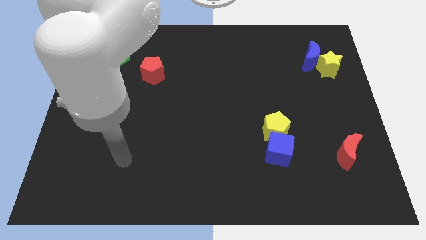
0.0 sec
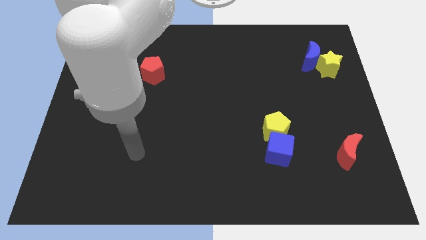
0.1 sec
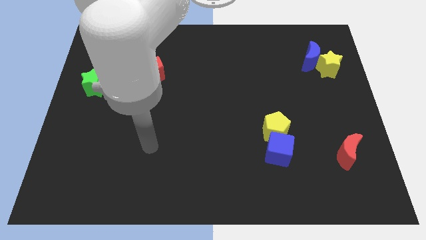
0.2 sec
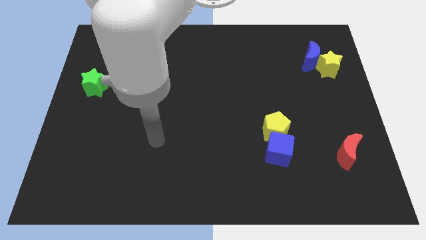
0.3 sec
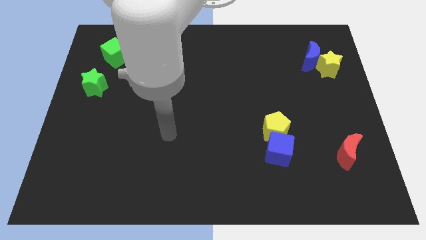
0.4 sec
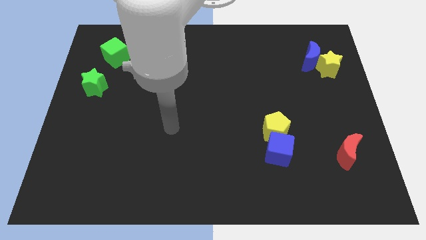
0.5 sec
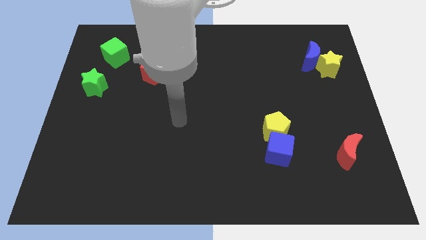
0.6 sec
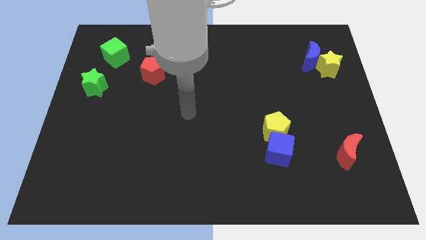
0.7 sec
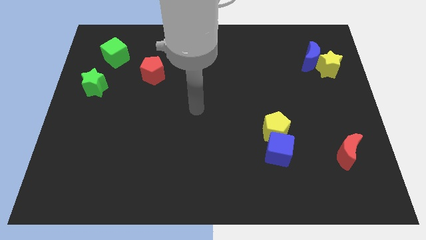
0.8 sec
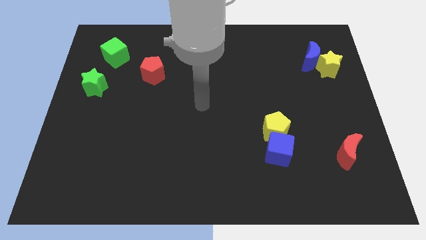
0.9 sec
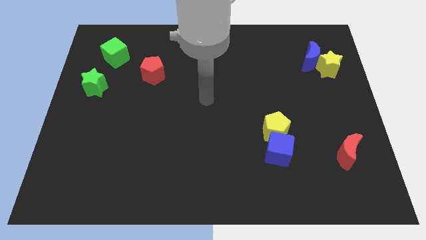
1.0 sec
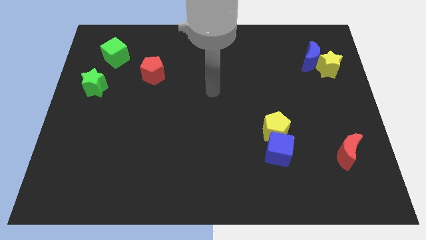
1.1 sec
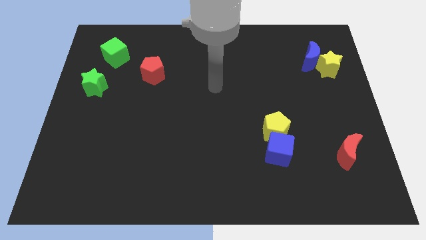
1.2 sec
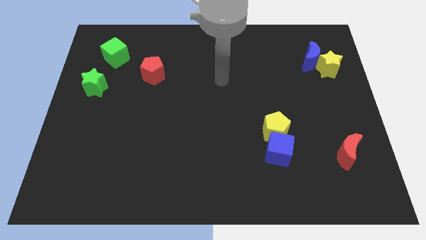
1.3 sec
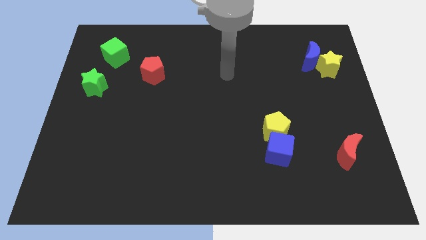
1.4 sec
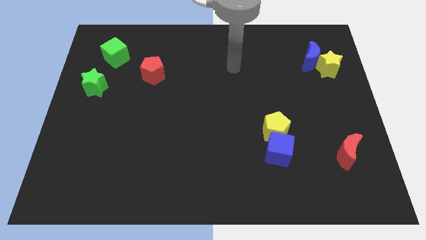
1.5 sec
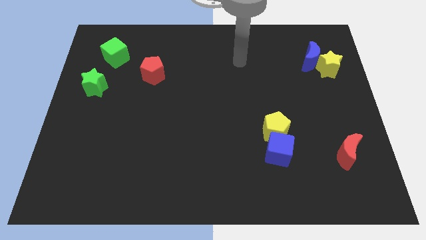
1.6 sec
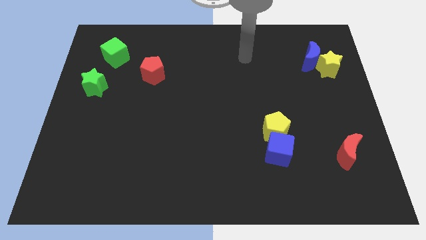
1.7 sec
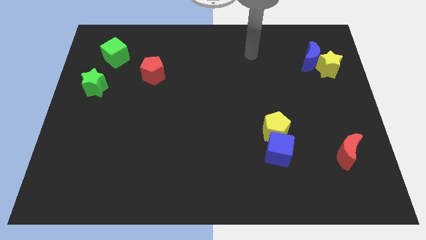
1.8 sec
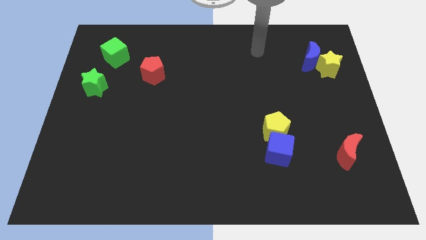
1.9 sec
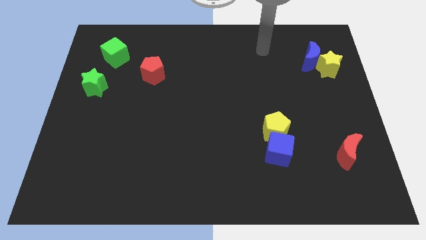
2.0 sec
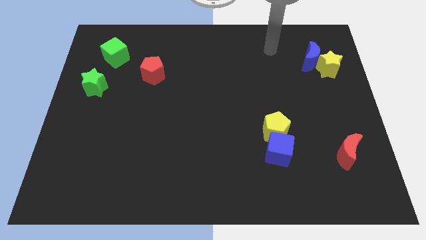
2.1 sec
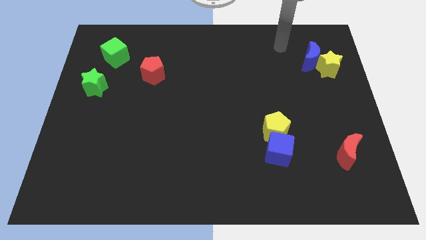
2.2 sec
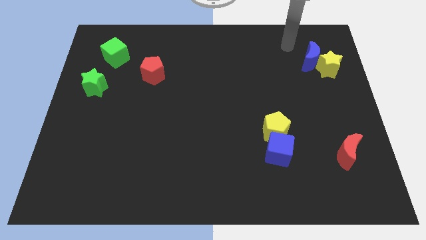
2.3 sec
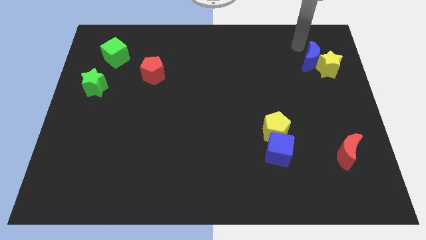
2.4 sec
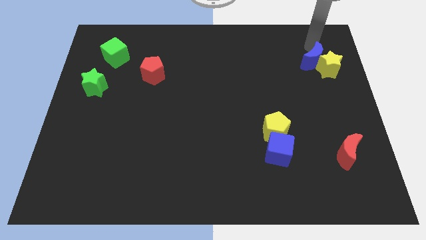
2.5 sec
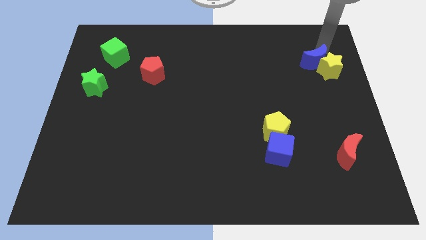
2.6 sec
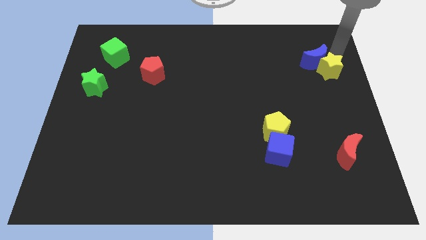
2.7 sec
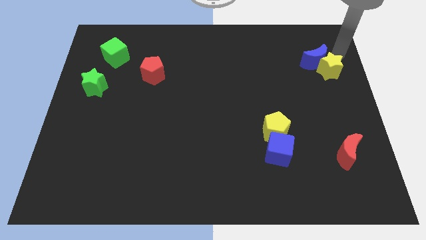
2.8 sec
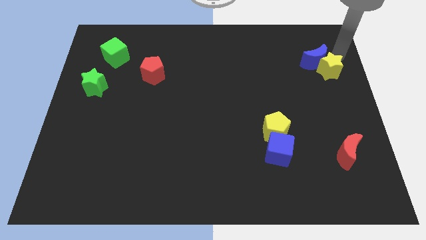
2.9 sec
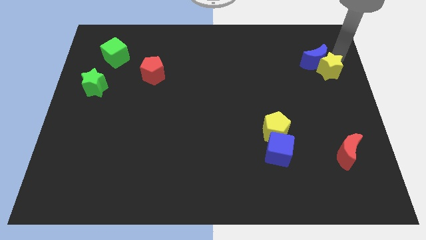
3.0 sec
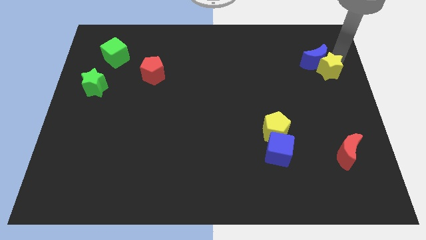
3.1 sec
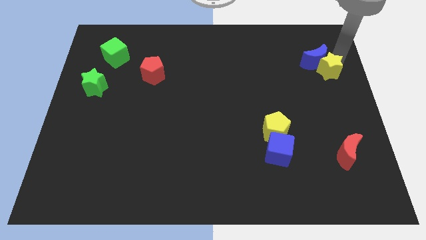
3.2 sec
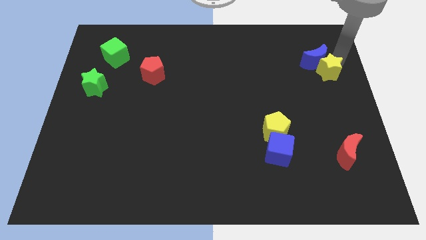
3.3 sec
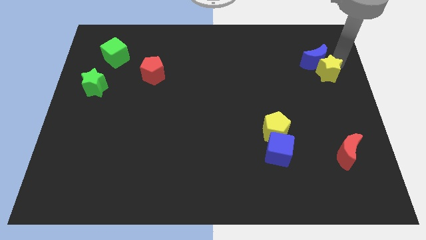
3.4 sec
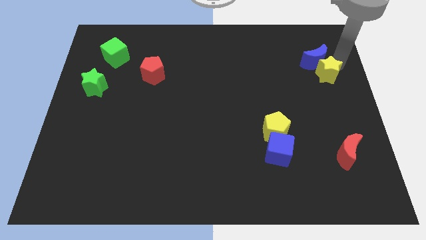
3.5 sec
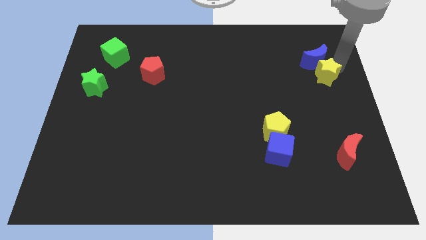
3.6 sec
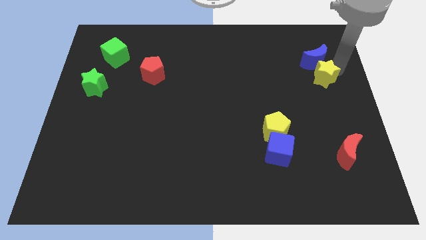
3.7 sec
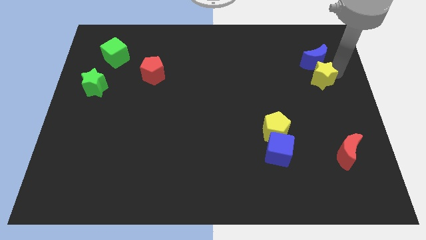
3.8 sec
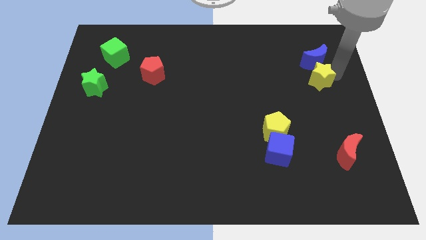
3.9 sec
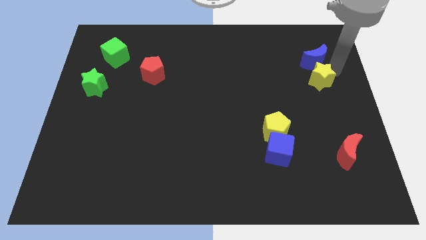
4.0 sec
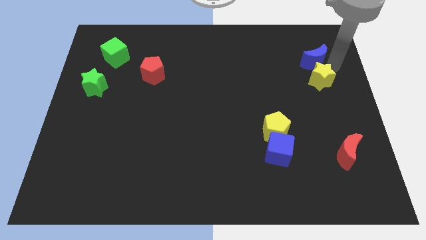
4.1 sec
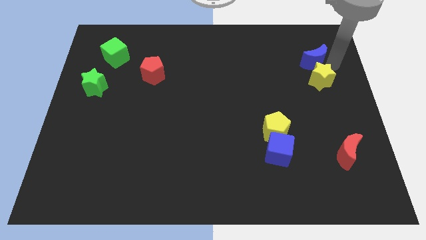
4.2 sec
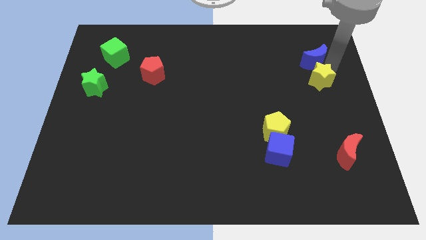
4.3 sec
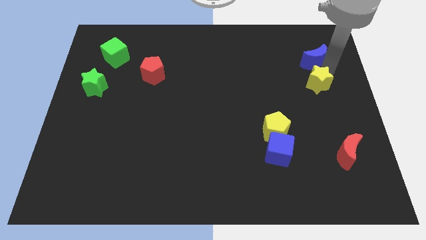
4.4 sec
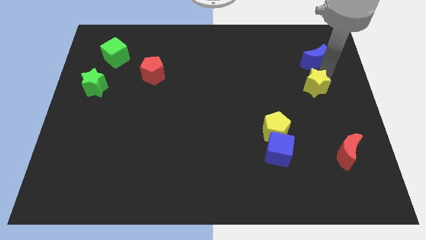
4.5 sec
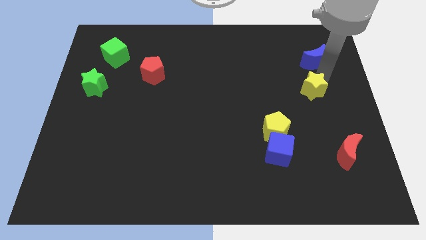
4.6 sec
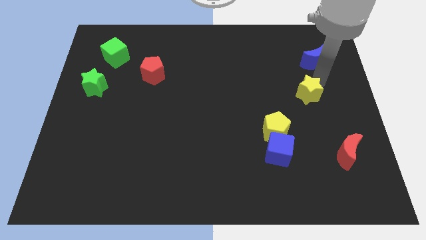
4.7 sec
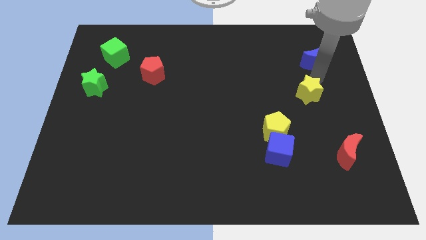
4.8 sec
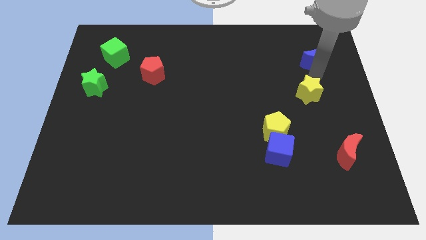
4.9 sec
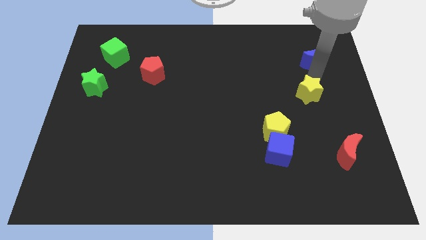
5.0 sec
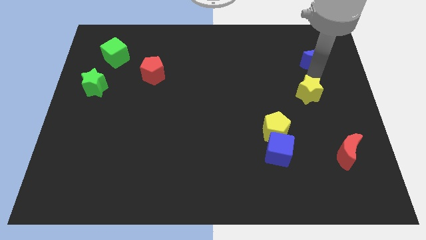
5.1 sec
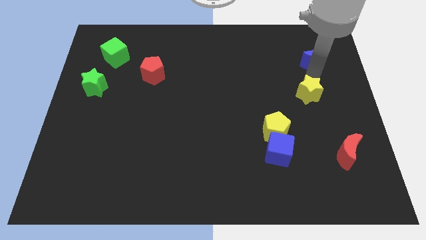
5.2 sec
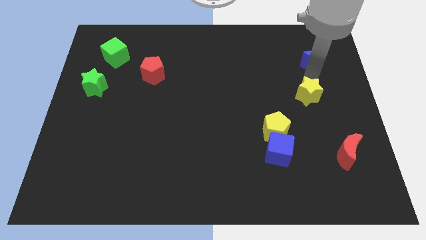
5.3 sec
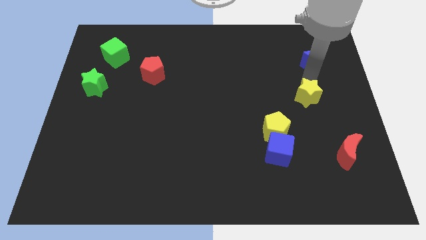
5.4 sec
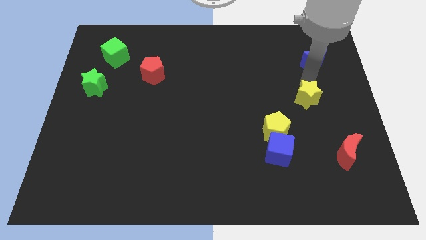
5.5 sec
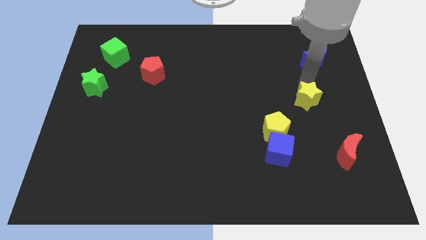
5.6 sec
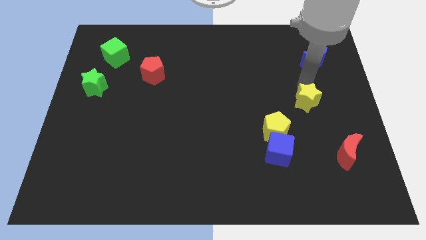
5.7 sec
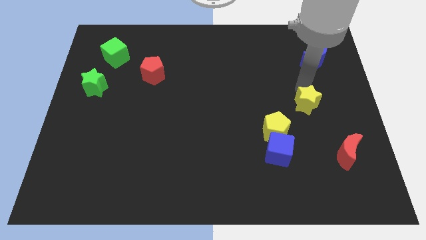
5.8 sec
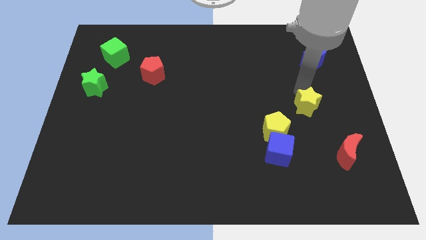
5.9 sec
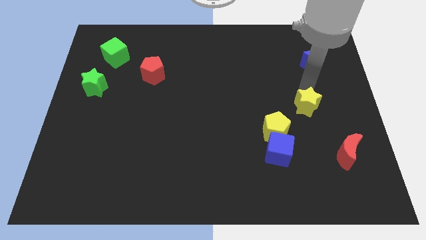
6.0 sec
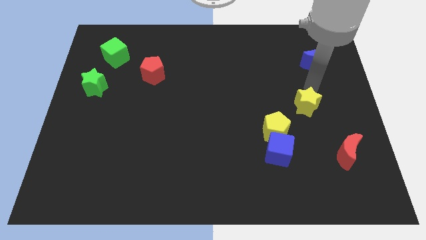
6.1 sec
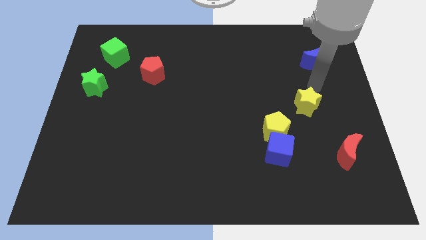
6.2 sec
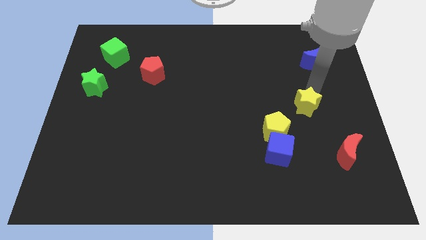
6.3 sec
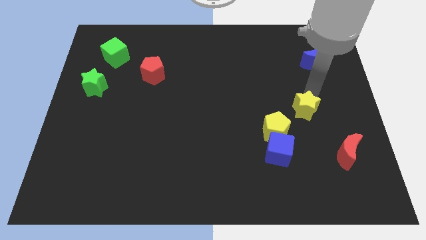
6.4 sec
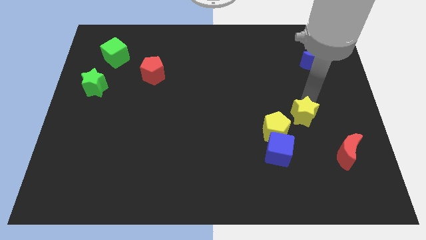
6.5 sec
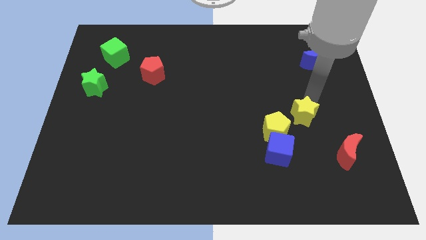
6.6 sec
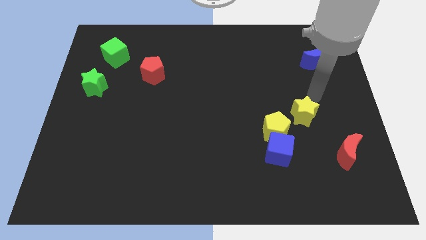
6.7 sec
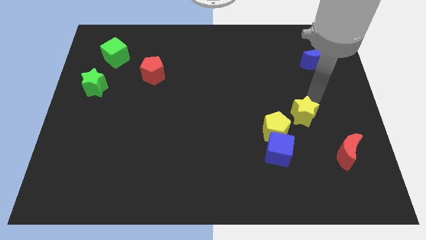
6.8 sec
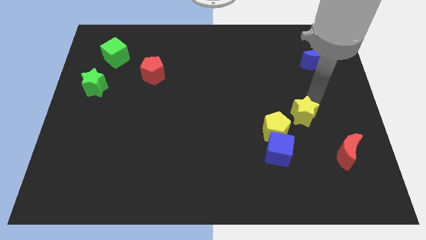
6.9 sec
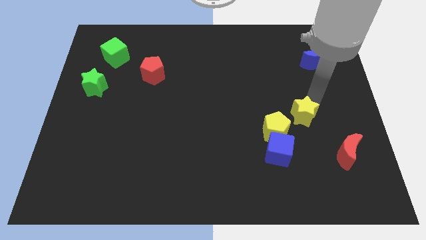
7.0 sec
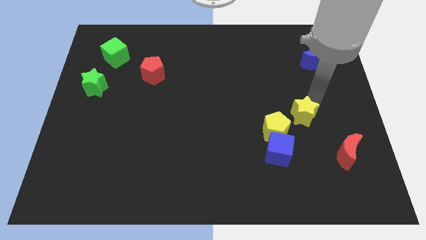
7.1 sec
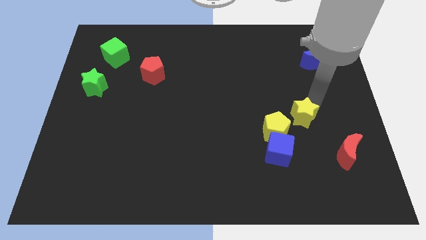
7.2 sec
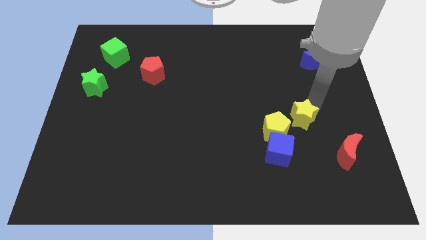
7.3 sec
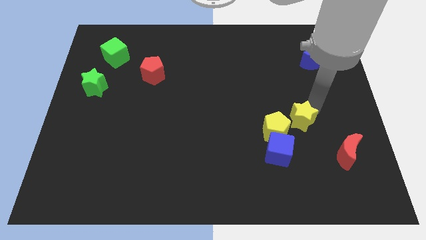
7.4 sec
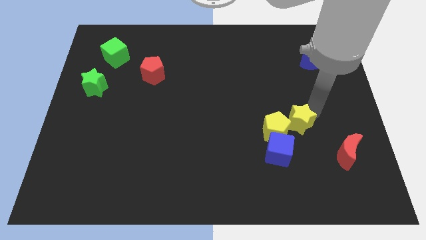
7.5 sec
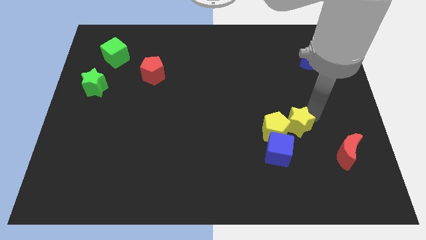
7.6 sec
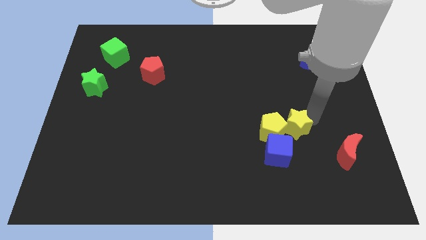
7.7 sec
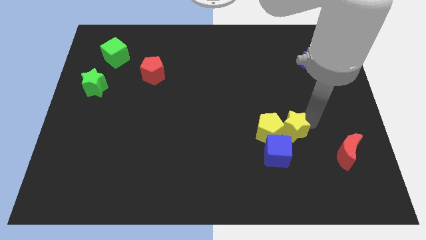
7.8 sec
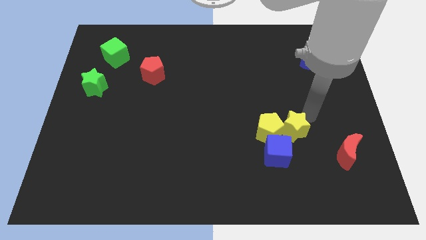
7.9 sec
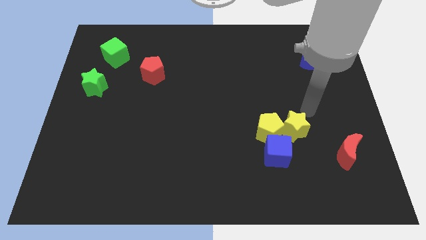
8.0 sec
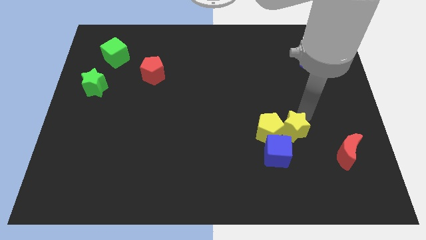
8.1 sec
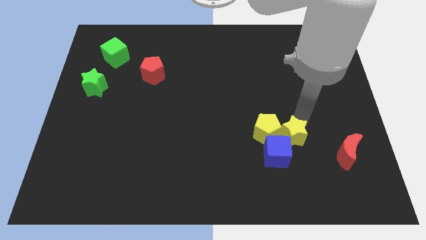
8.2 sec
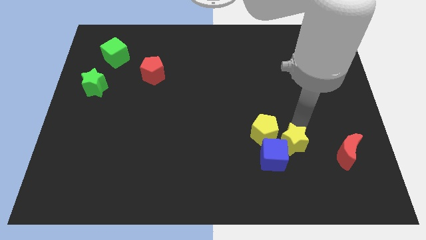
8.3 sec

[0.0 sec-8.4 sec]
push the yellow star close to the blue cube
